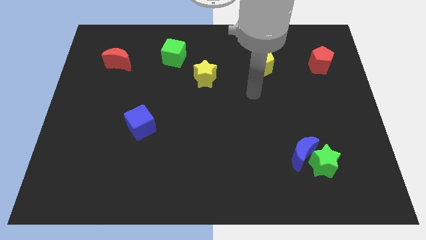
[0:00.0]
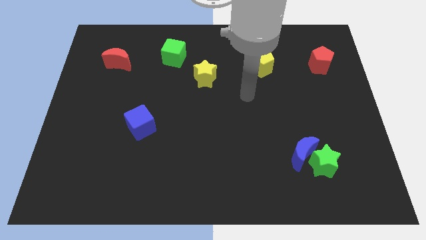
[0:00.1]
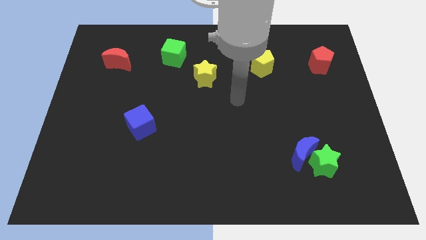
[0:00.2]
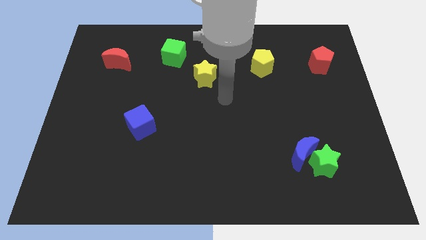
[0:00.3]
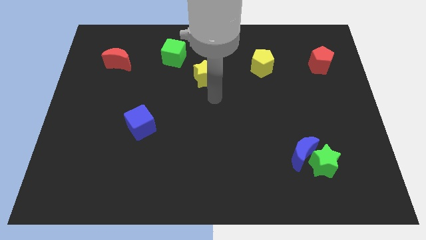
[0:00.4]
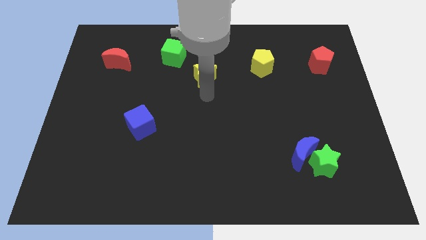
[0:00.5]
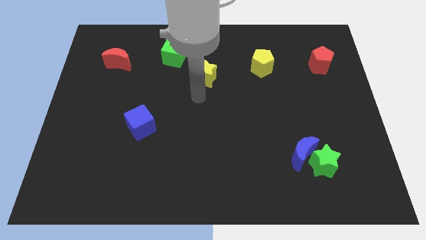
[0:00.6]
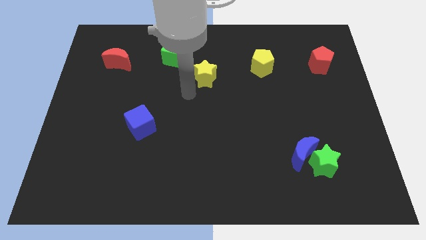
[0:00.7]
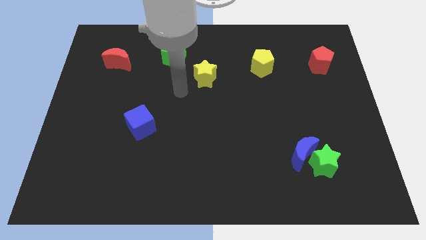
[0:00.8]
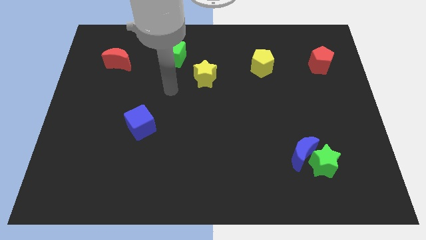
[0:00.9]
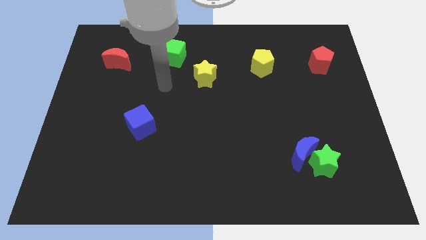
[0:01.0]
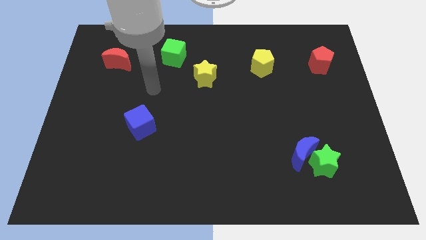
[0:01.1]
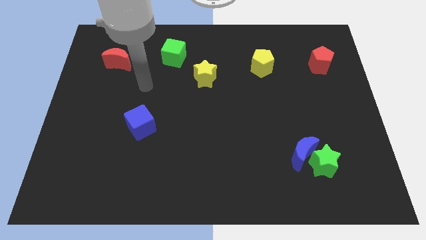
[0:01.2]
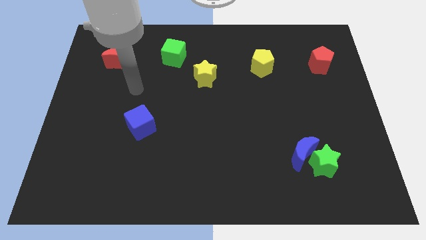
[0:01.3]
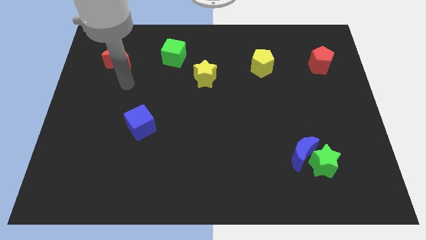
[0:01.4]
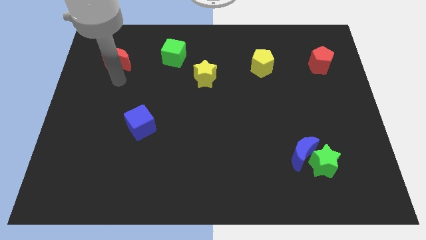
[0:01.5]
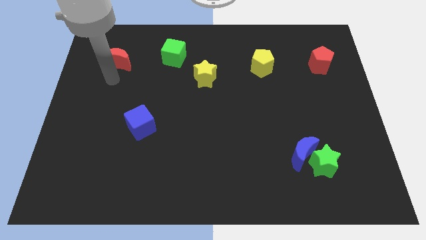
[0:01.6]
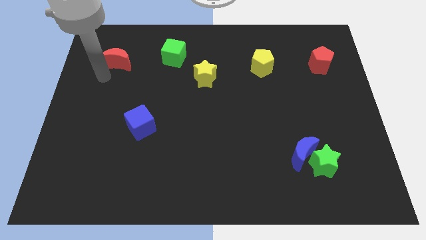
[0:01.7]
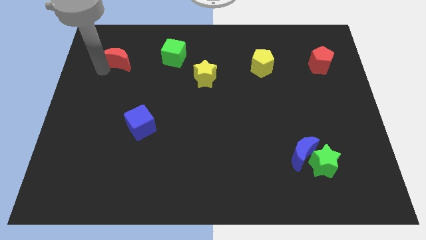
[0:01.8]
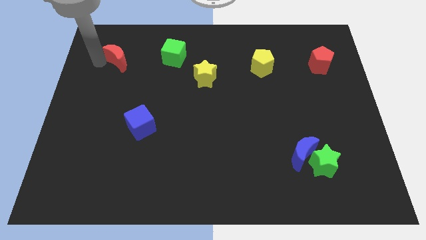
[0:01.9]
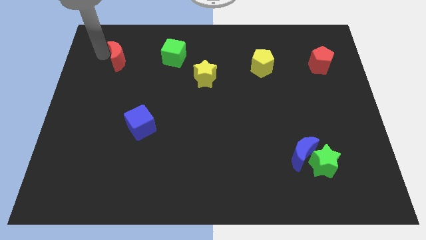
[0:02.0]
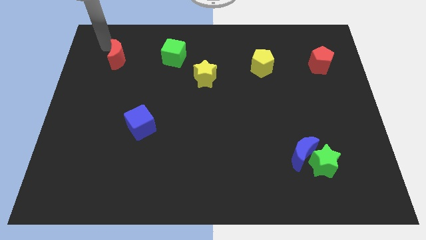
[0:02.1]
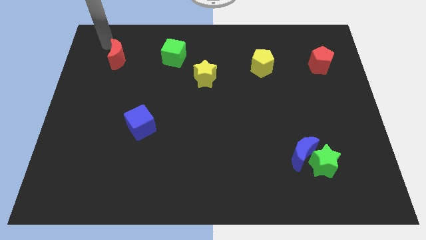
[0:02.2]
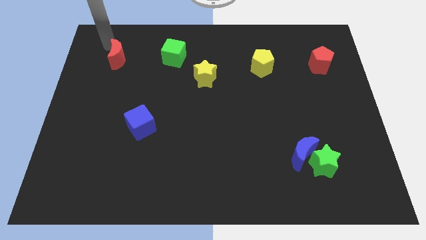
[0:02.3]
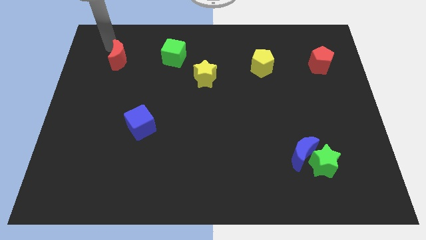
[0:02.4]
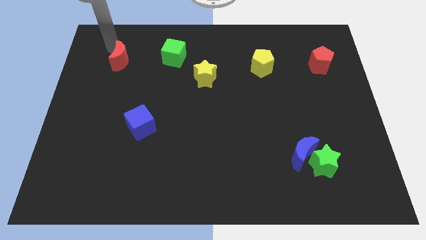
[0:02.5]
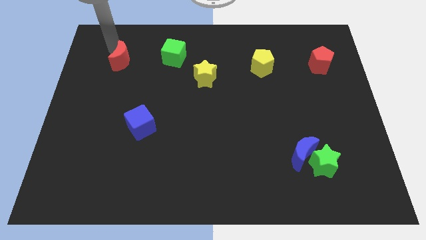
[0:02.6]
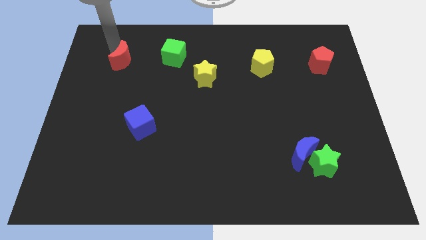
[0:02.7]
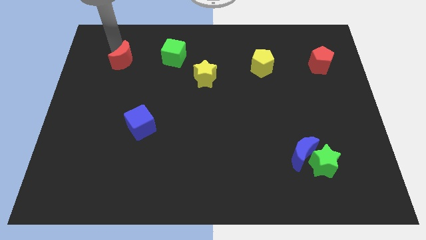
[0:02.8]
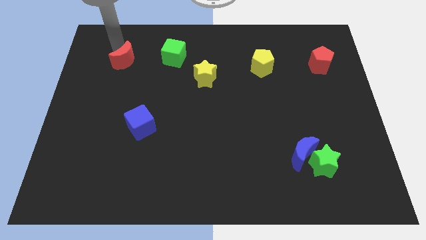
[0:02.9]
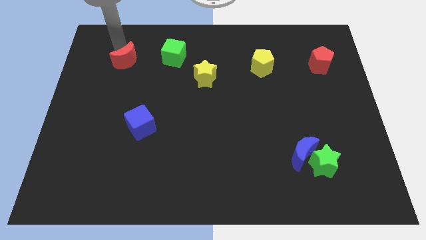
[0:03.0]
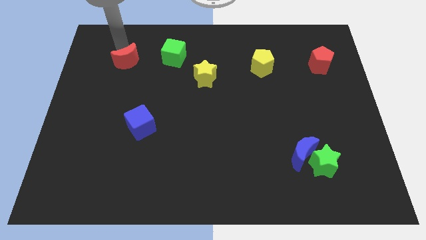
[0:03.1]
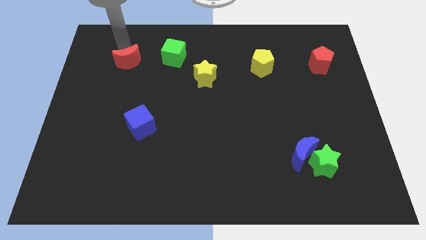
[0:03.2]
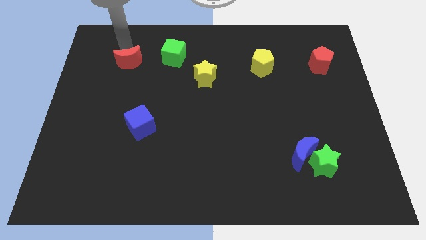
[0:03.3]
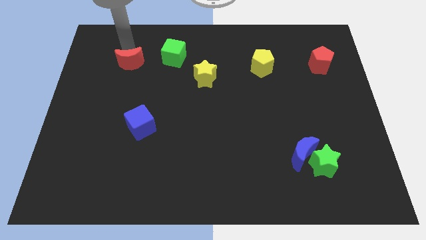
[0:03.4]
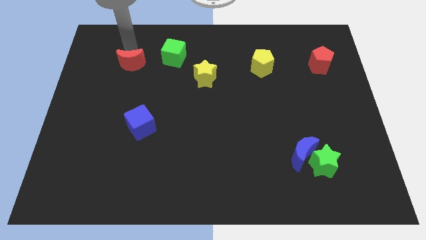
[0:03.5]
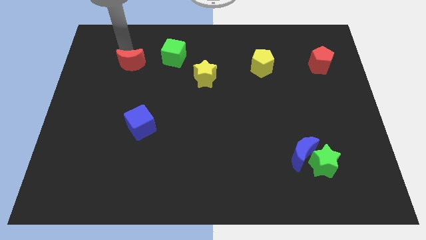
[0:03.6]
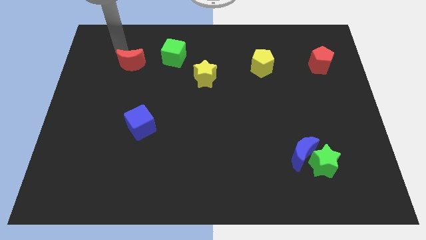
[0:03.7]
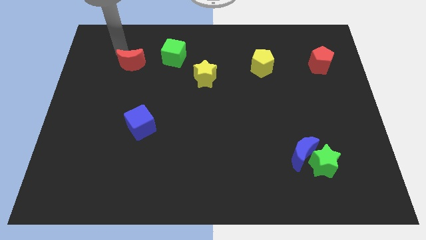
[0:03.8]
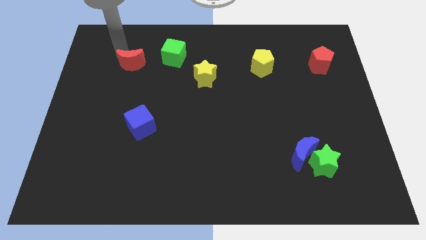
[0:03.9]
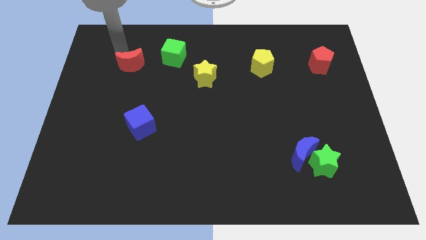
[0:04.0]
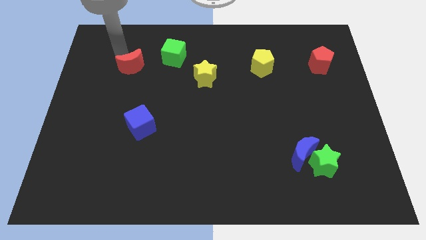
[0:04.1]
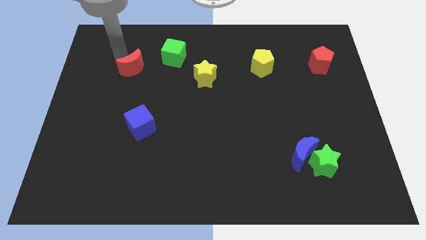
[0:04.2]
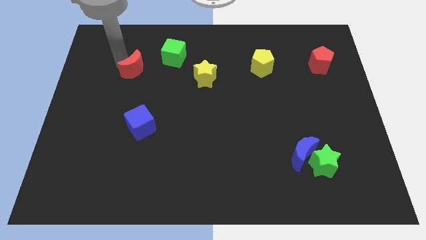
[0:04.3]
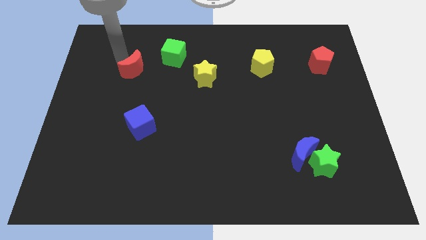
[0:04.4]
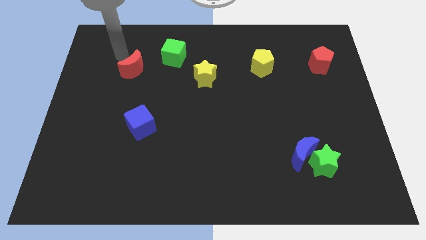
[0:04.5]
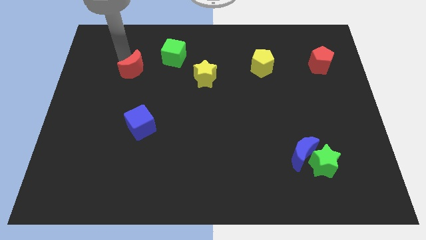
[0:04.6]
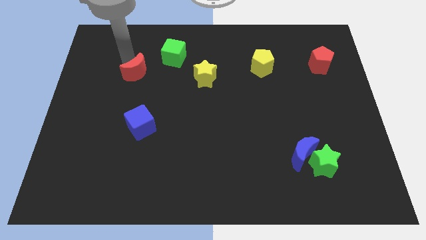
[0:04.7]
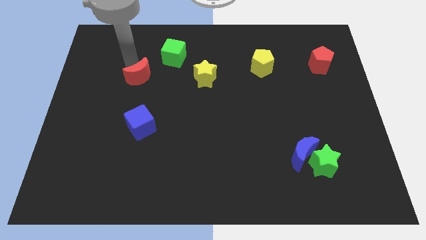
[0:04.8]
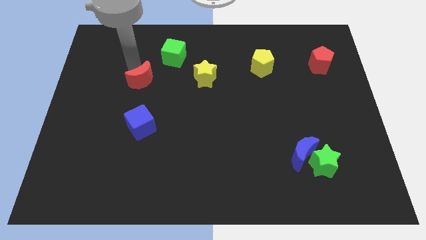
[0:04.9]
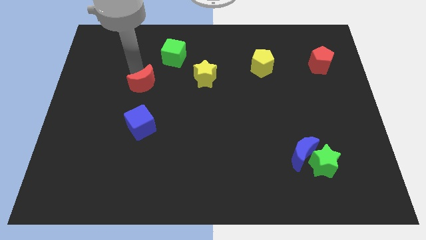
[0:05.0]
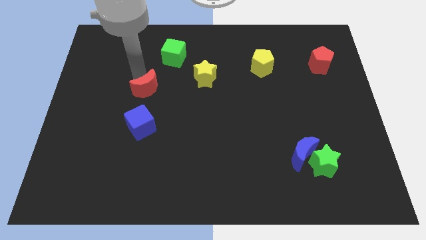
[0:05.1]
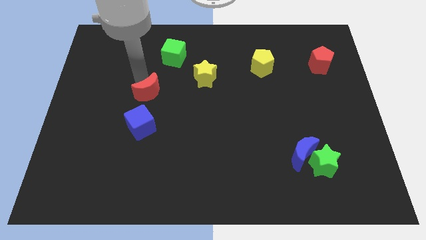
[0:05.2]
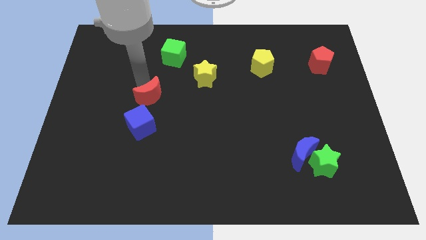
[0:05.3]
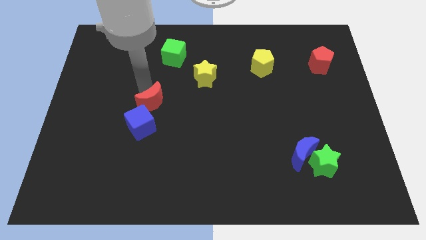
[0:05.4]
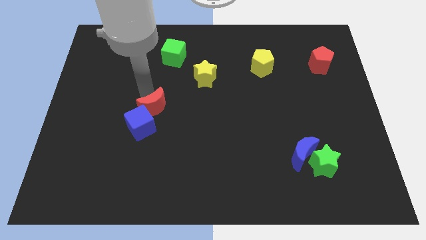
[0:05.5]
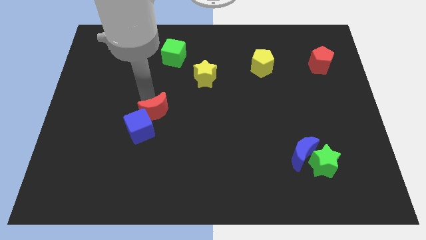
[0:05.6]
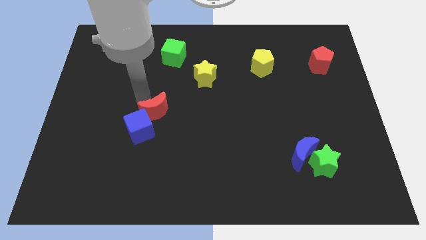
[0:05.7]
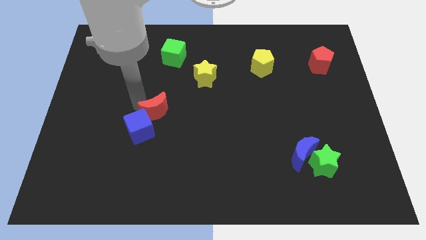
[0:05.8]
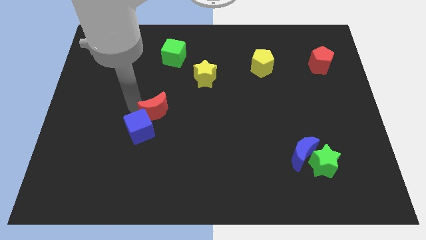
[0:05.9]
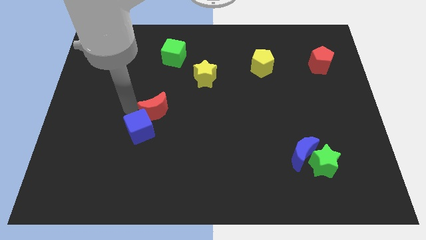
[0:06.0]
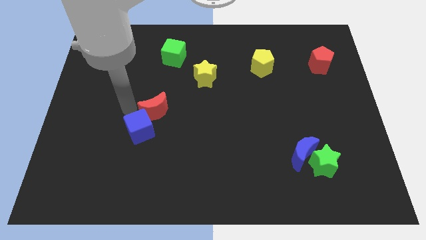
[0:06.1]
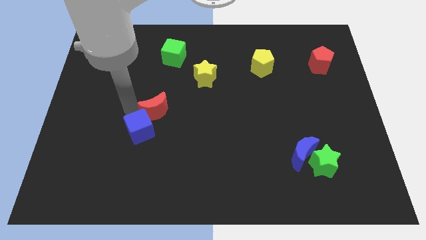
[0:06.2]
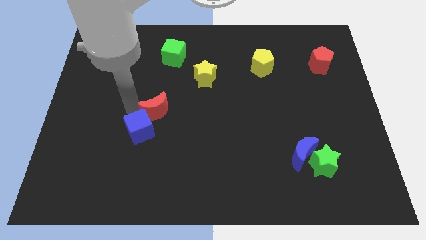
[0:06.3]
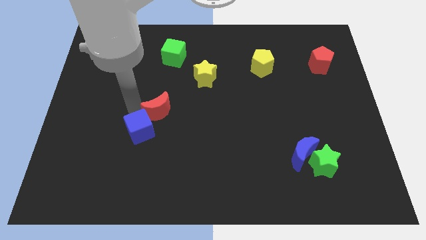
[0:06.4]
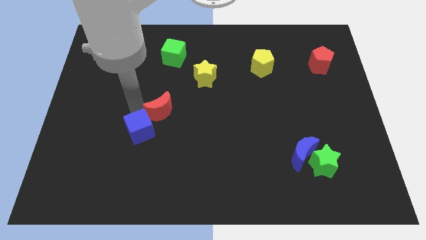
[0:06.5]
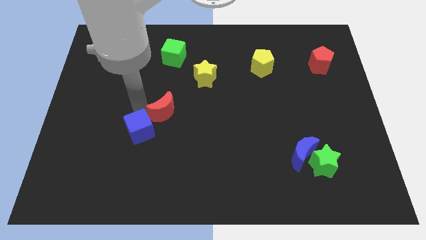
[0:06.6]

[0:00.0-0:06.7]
put the red moon to the right of the blue cube
